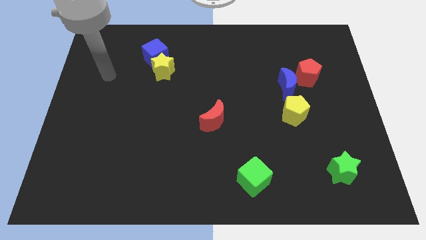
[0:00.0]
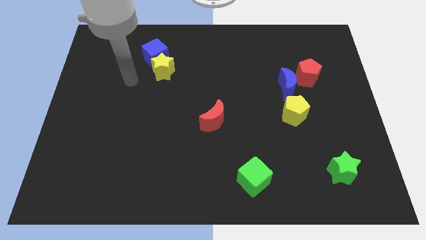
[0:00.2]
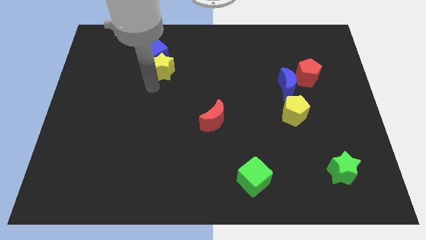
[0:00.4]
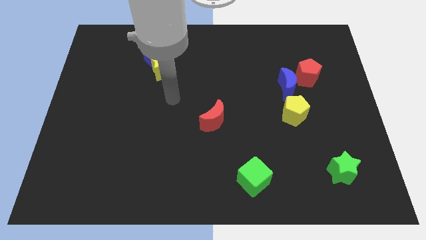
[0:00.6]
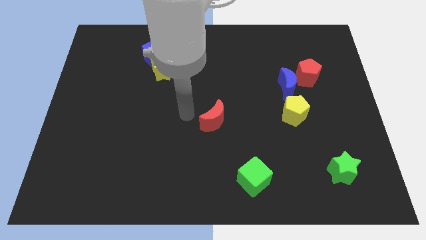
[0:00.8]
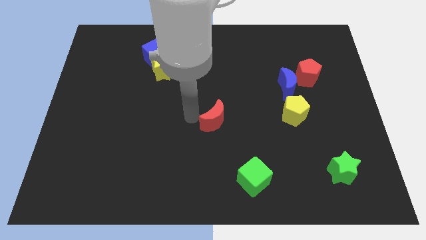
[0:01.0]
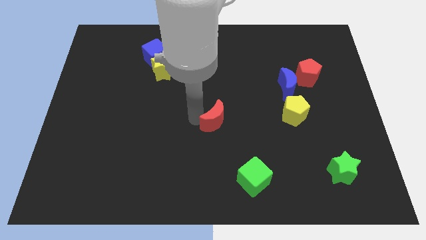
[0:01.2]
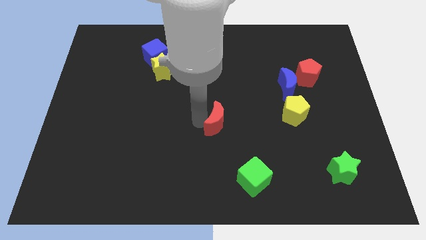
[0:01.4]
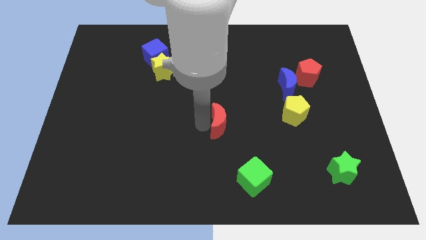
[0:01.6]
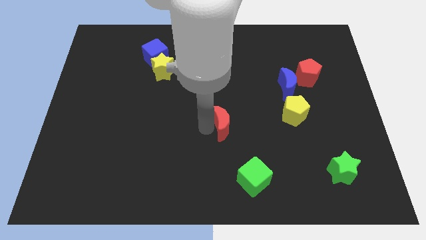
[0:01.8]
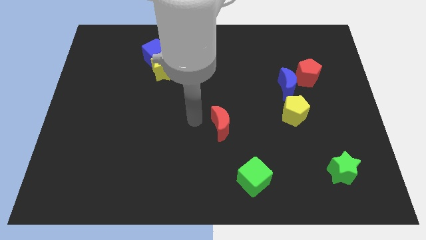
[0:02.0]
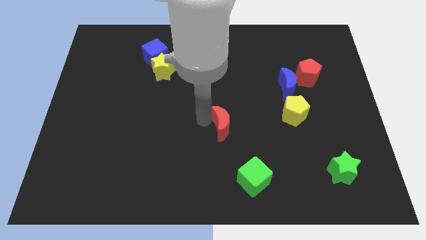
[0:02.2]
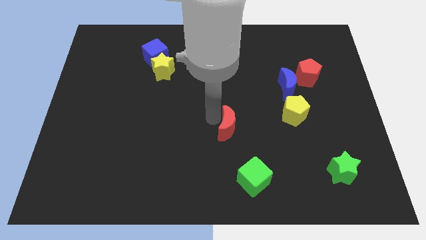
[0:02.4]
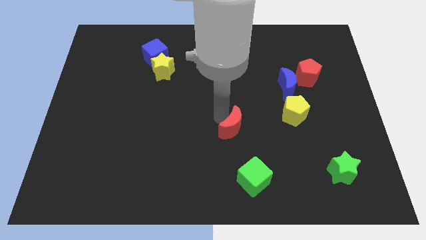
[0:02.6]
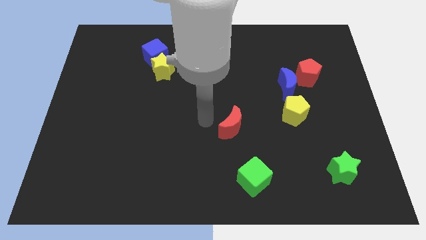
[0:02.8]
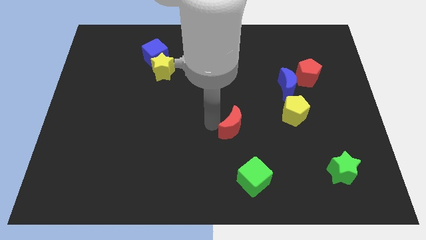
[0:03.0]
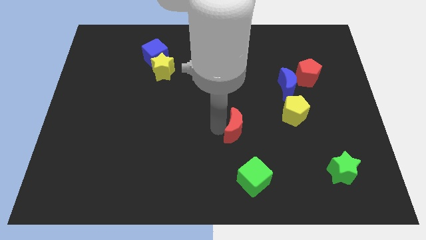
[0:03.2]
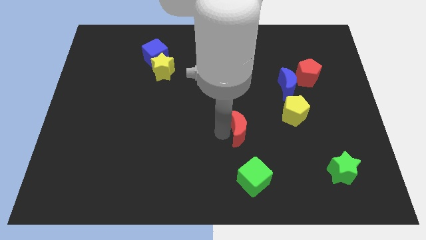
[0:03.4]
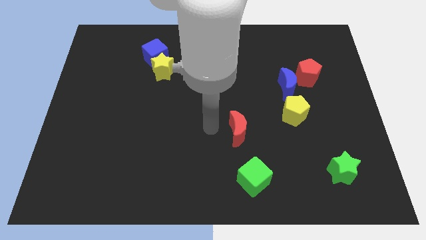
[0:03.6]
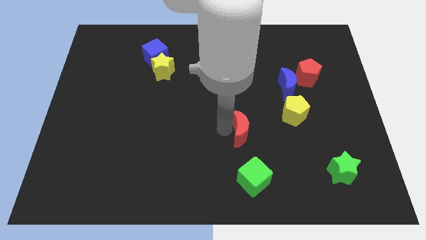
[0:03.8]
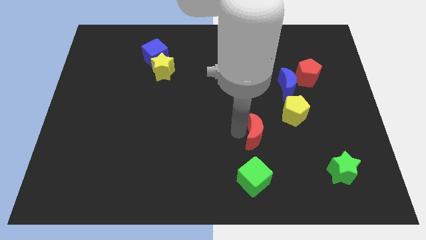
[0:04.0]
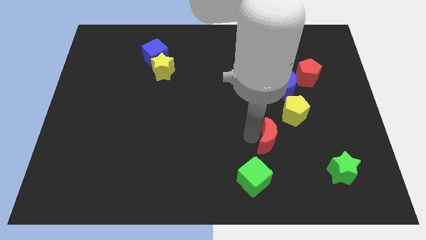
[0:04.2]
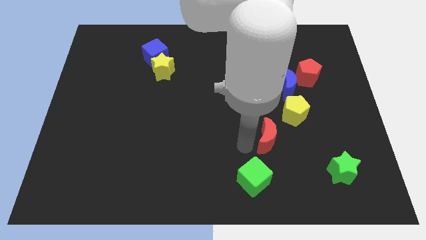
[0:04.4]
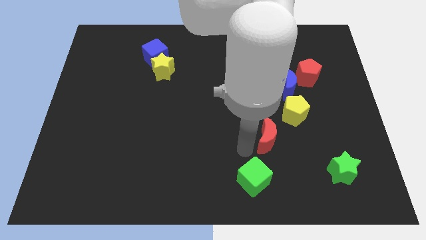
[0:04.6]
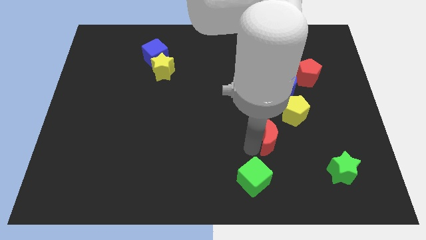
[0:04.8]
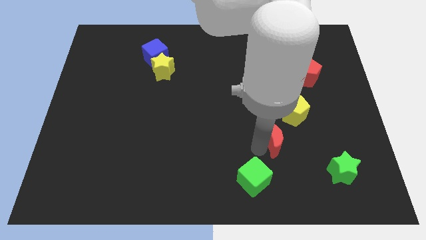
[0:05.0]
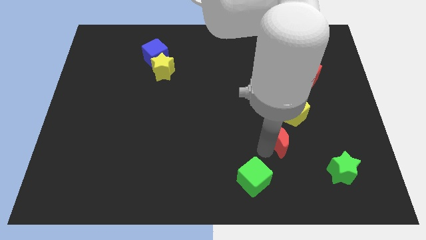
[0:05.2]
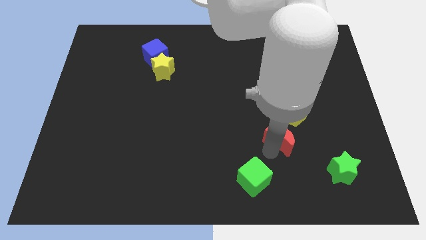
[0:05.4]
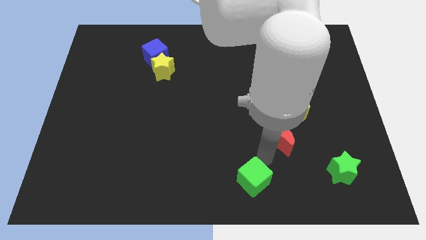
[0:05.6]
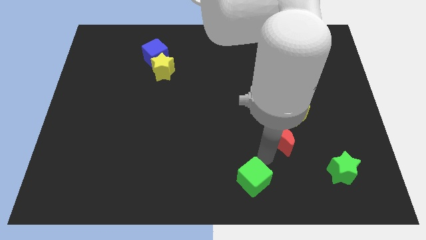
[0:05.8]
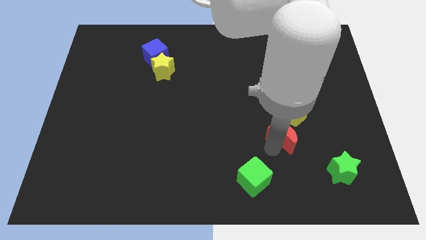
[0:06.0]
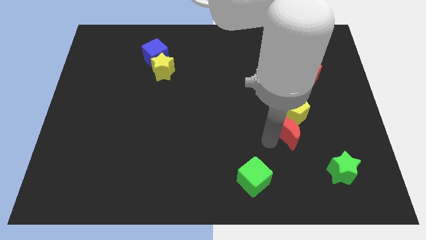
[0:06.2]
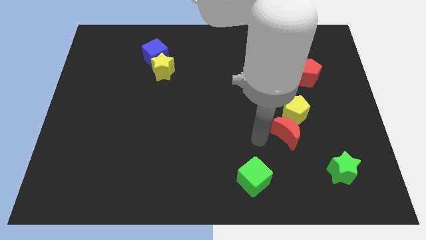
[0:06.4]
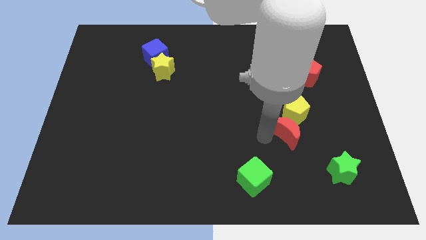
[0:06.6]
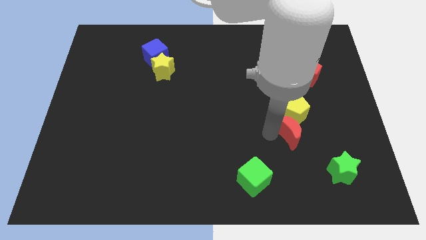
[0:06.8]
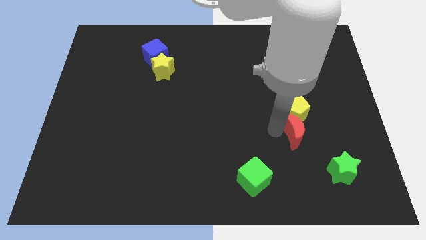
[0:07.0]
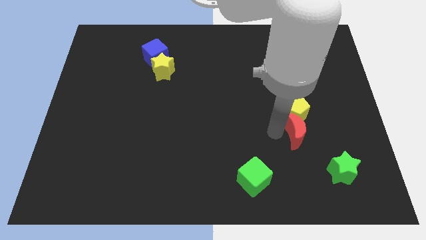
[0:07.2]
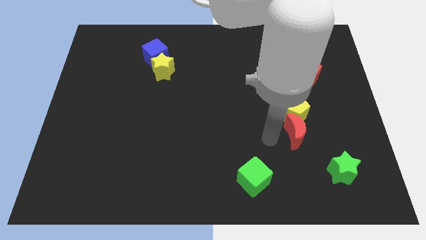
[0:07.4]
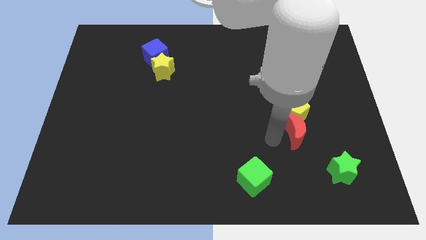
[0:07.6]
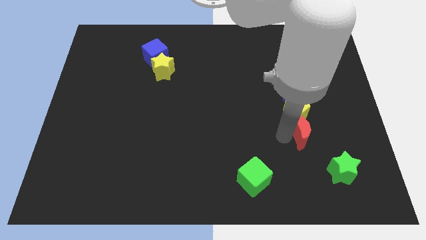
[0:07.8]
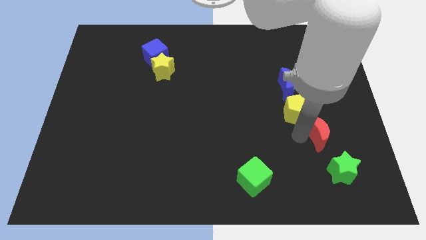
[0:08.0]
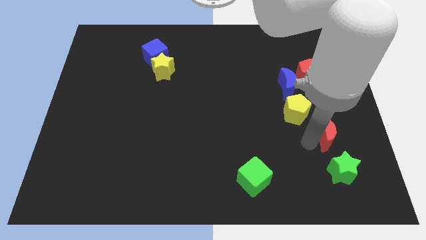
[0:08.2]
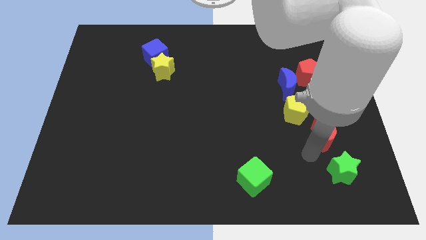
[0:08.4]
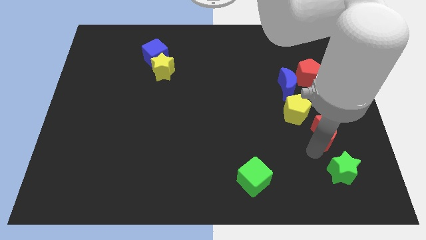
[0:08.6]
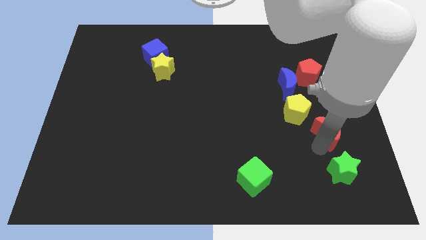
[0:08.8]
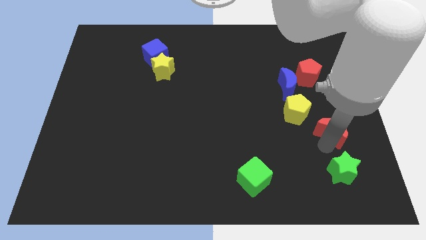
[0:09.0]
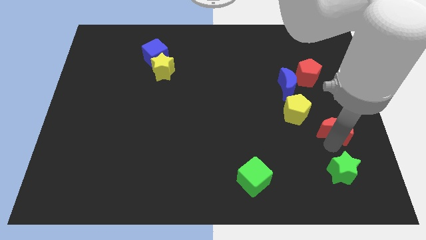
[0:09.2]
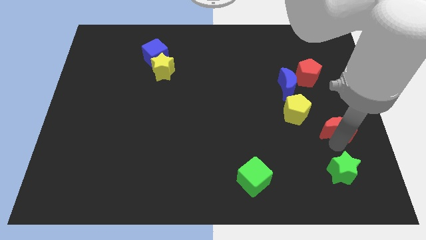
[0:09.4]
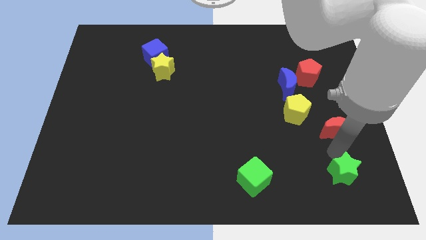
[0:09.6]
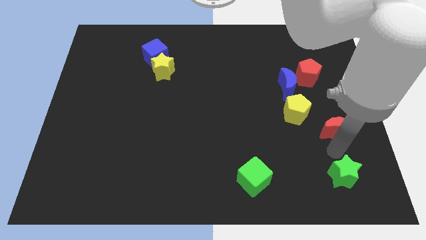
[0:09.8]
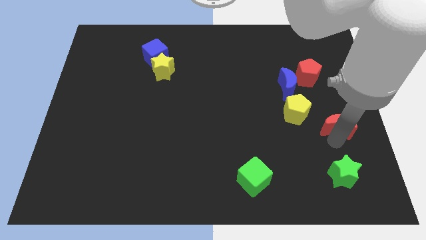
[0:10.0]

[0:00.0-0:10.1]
push the red moon to the center right

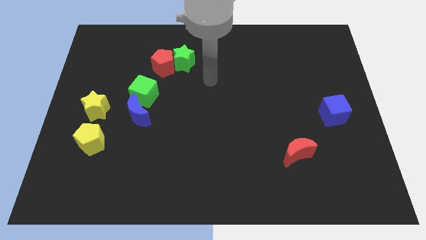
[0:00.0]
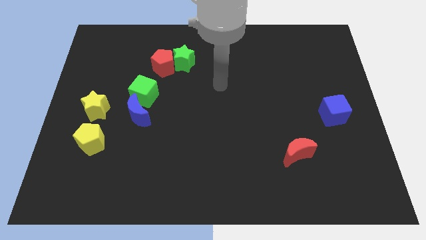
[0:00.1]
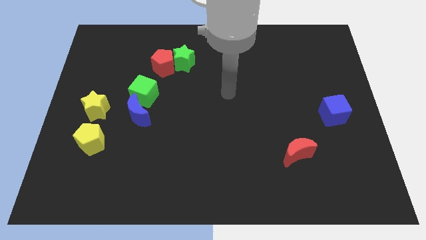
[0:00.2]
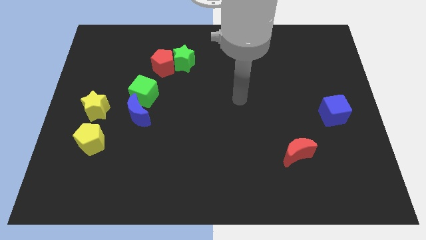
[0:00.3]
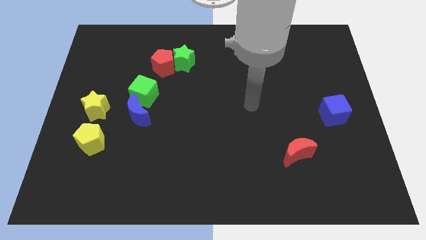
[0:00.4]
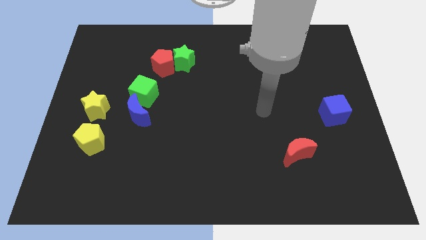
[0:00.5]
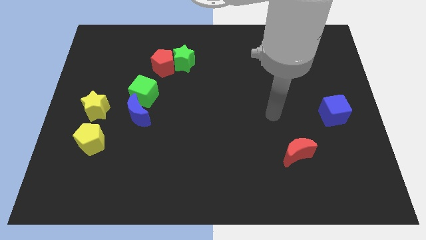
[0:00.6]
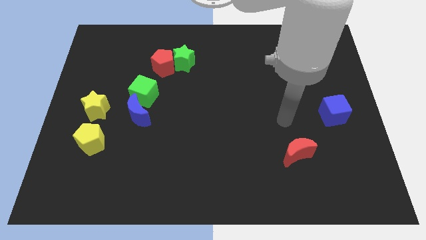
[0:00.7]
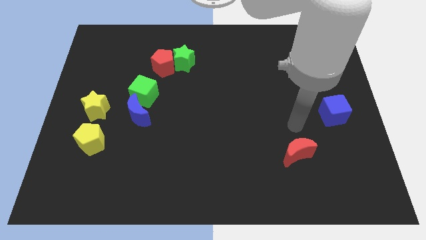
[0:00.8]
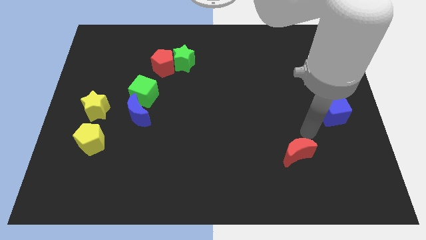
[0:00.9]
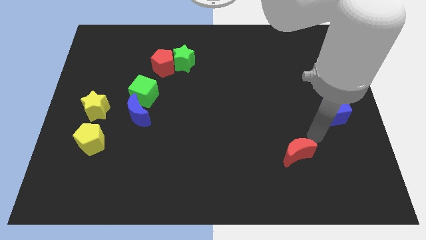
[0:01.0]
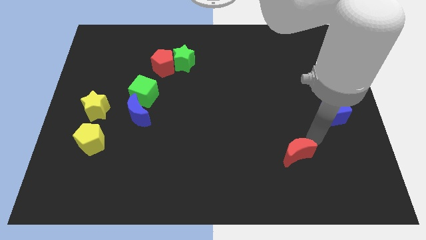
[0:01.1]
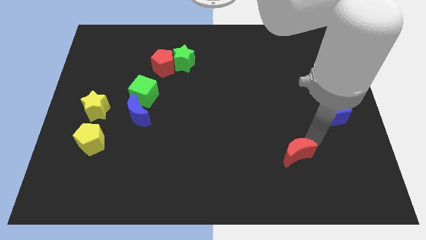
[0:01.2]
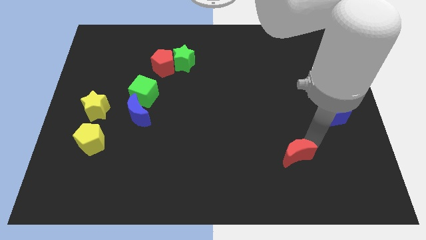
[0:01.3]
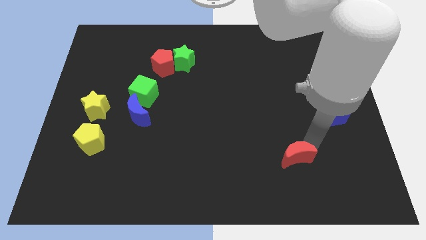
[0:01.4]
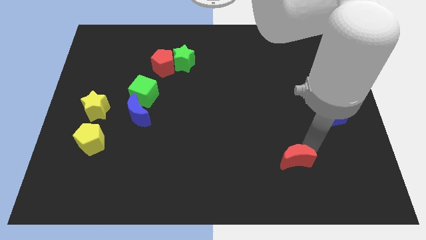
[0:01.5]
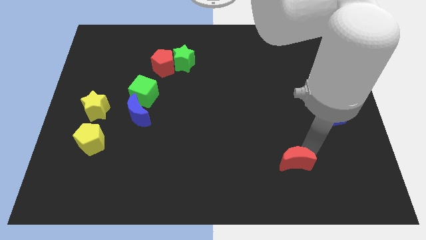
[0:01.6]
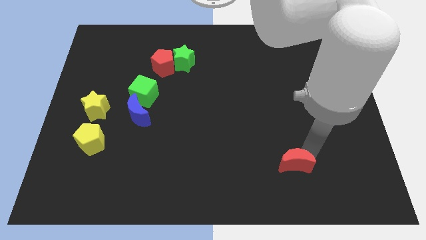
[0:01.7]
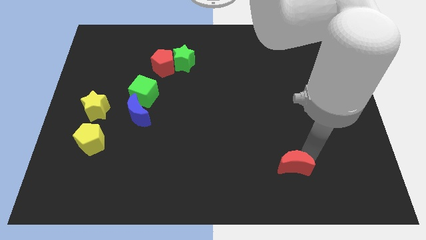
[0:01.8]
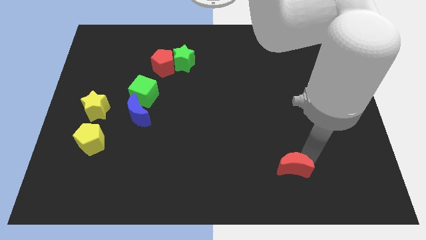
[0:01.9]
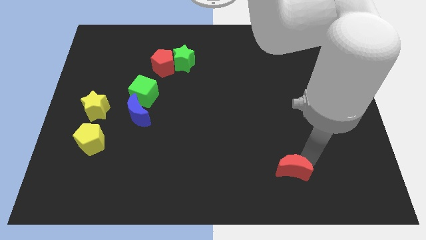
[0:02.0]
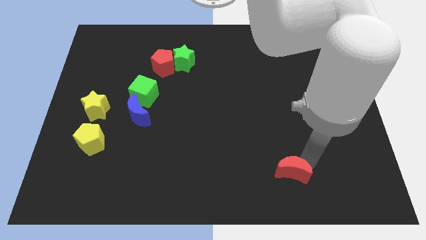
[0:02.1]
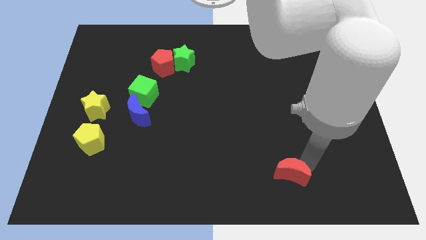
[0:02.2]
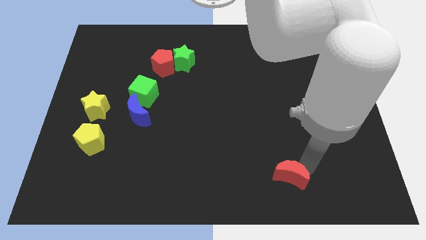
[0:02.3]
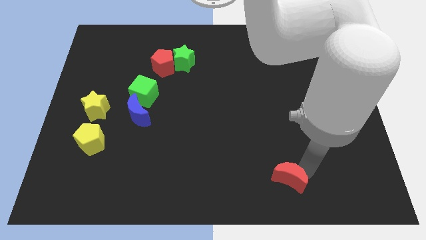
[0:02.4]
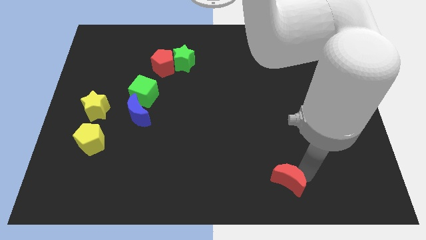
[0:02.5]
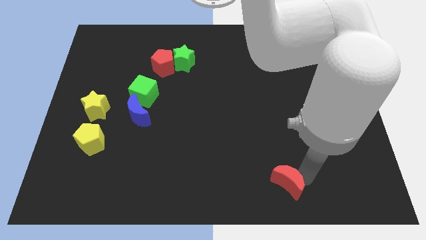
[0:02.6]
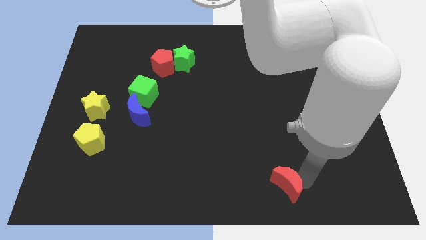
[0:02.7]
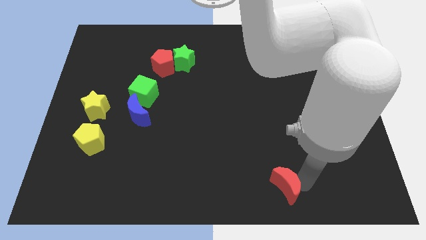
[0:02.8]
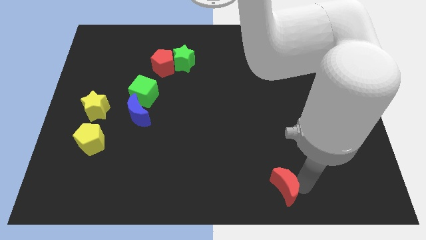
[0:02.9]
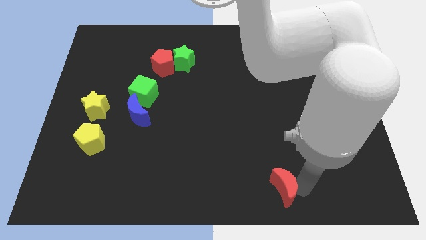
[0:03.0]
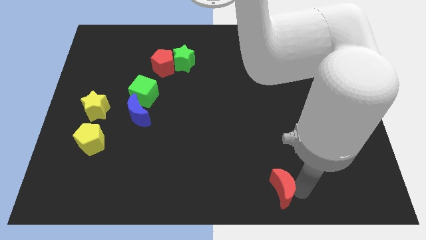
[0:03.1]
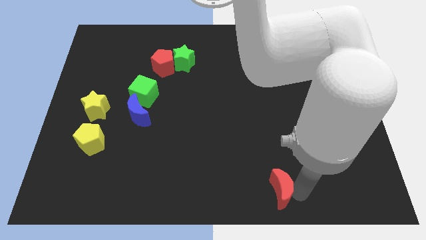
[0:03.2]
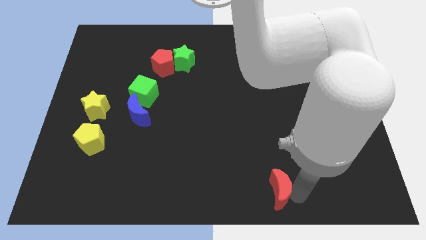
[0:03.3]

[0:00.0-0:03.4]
move the red moon to the bottom side
